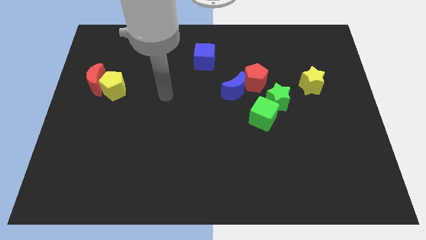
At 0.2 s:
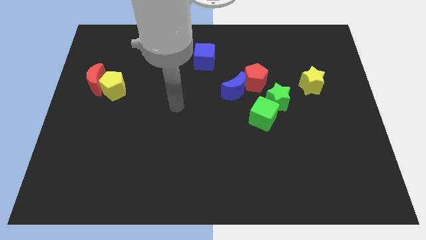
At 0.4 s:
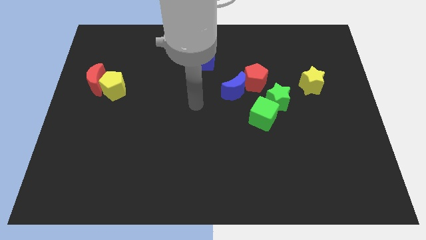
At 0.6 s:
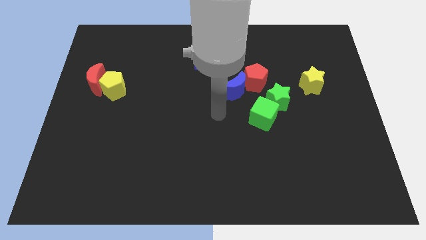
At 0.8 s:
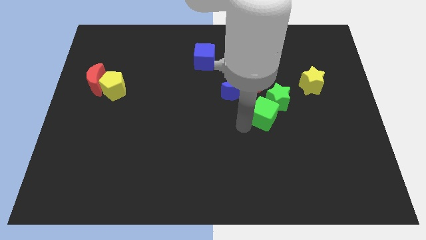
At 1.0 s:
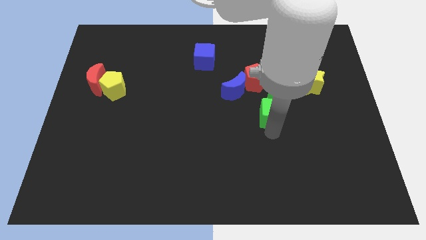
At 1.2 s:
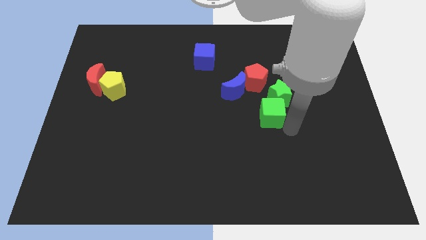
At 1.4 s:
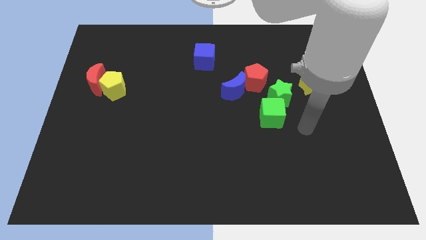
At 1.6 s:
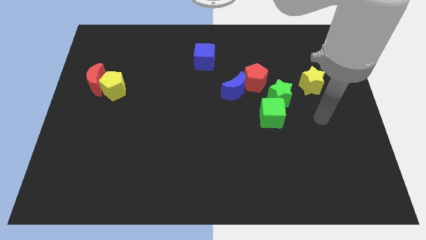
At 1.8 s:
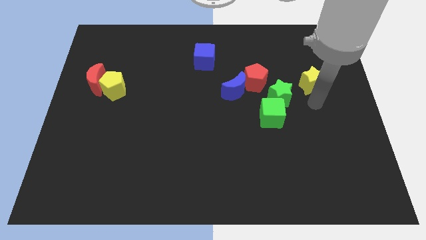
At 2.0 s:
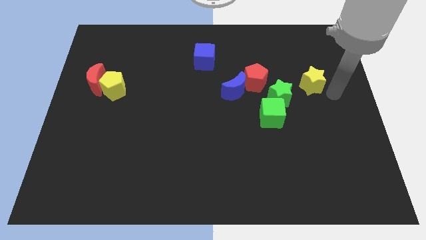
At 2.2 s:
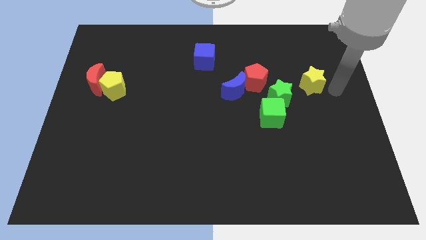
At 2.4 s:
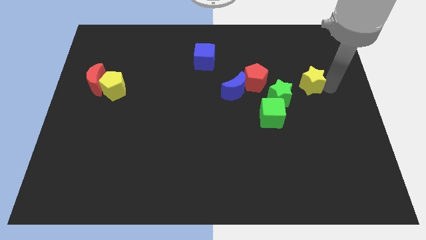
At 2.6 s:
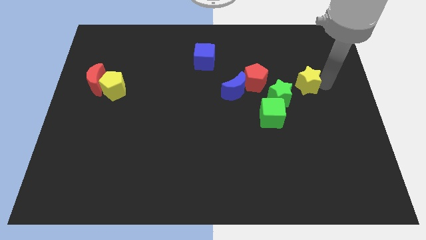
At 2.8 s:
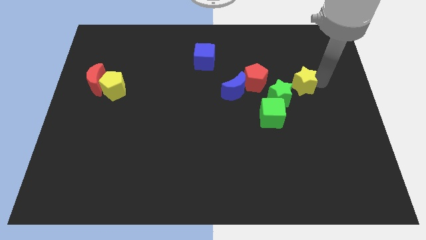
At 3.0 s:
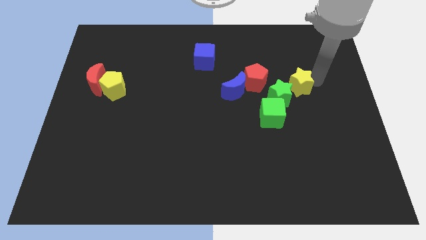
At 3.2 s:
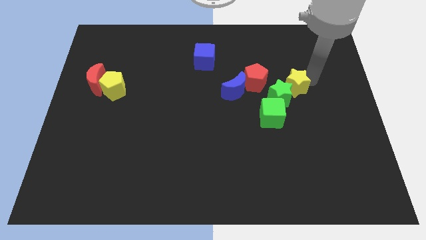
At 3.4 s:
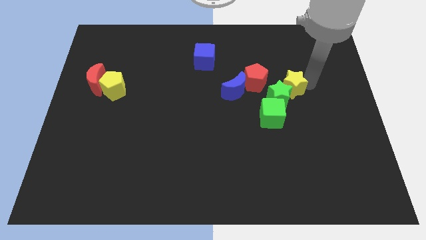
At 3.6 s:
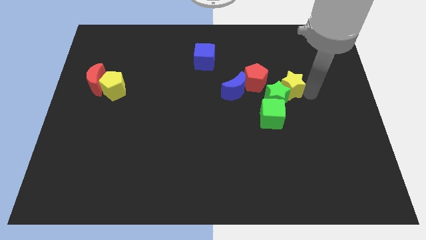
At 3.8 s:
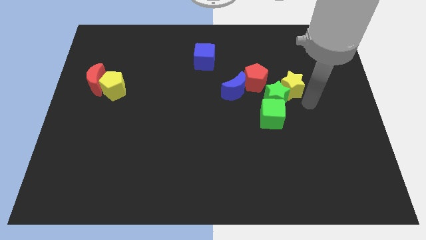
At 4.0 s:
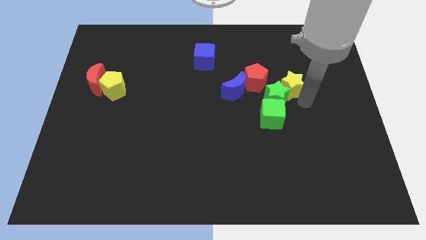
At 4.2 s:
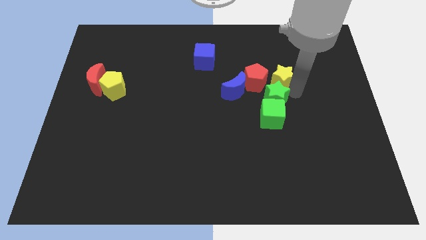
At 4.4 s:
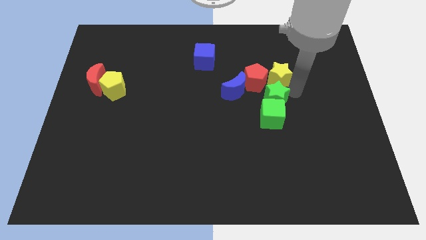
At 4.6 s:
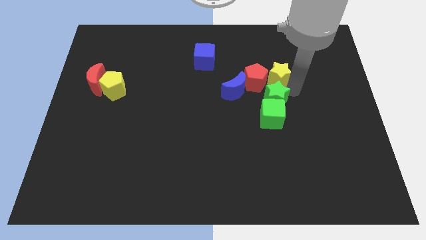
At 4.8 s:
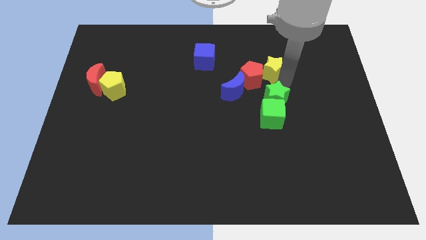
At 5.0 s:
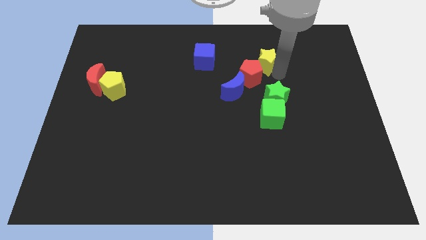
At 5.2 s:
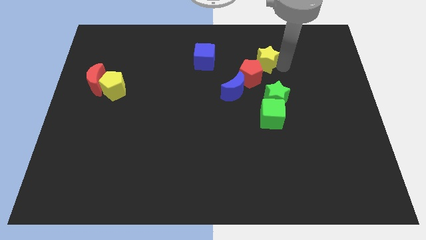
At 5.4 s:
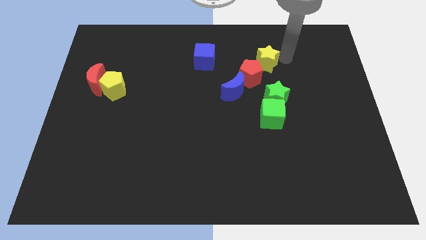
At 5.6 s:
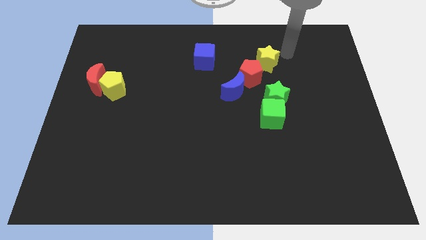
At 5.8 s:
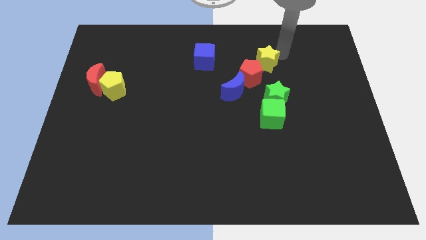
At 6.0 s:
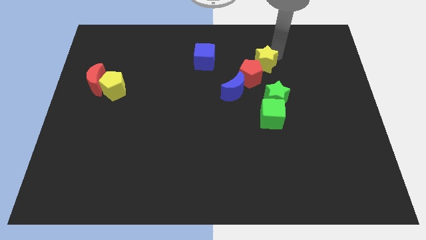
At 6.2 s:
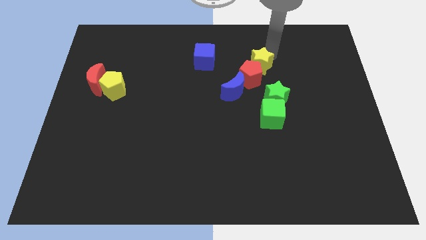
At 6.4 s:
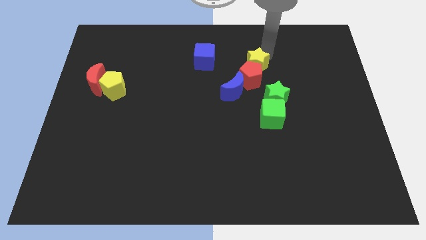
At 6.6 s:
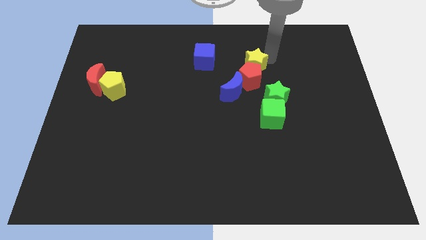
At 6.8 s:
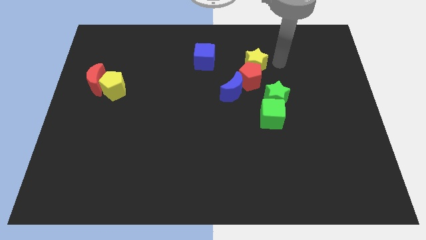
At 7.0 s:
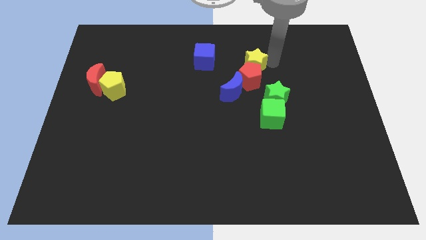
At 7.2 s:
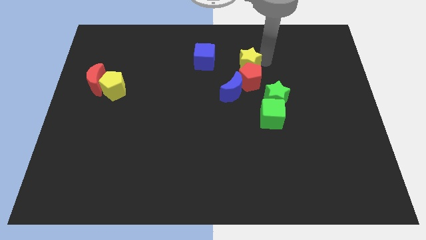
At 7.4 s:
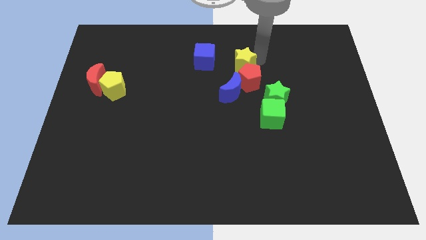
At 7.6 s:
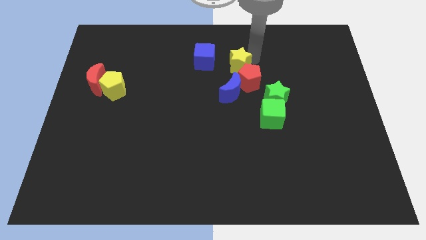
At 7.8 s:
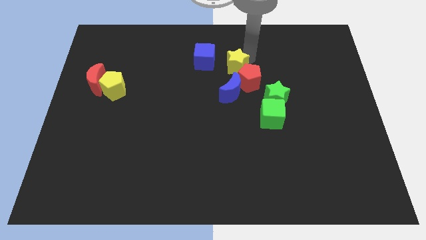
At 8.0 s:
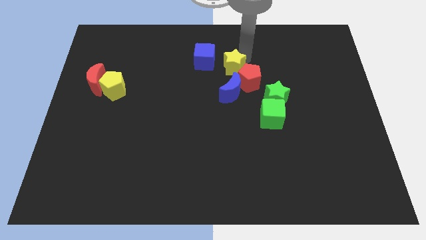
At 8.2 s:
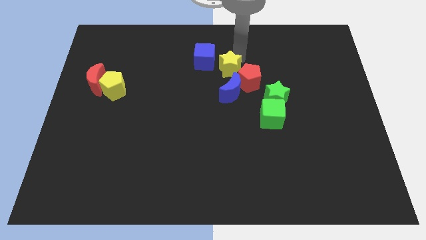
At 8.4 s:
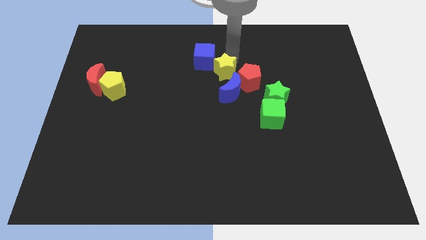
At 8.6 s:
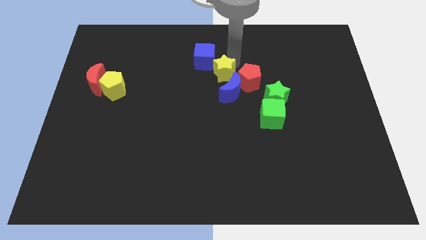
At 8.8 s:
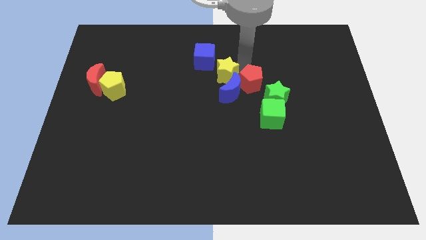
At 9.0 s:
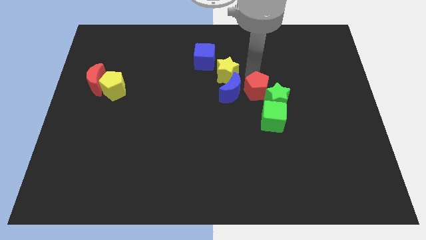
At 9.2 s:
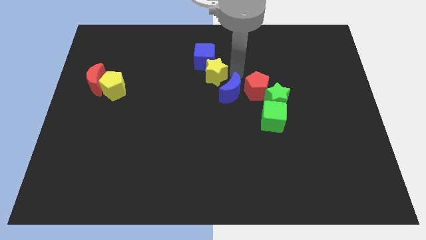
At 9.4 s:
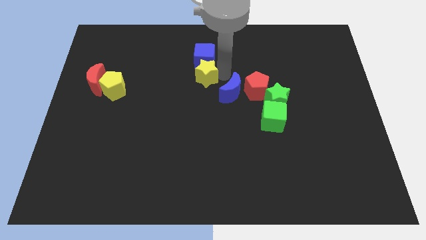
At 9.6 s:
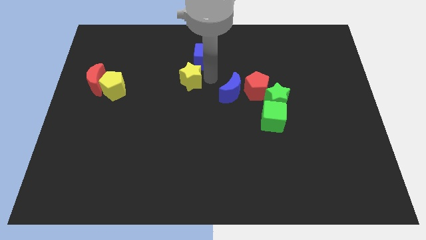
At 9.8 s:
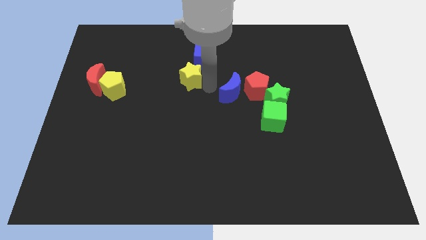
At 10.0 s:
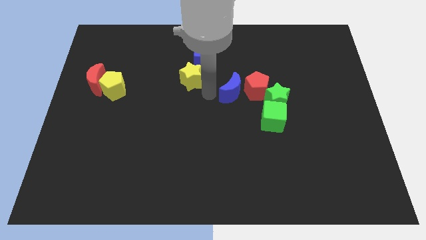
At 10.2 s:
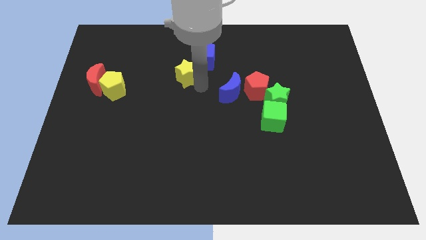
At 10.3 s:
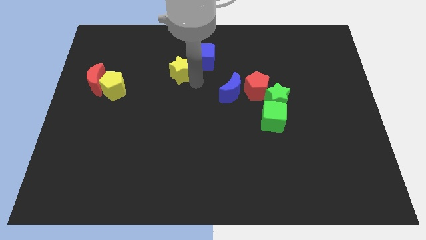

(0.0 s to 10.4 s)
put the yellow star to the left of the blue cube

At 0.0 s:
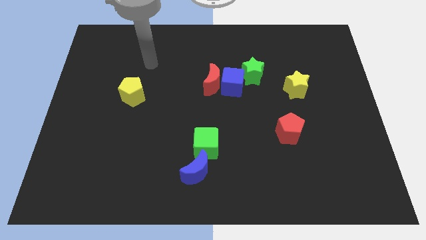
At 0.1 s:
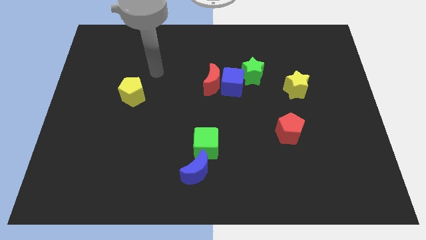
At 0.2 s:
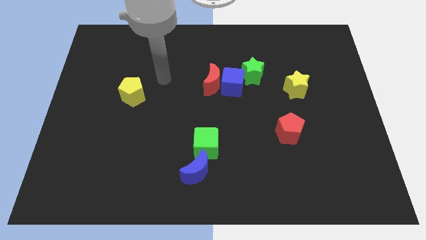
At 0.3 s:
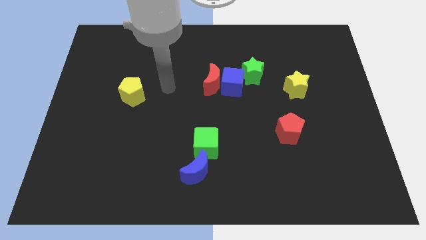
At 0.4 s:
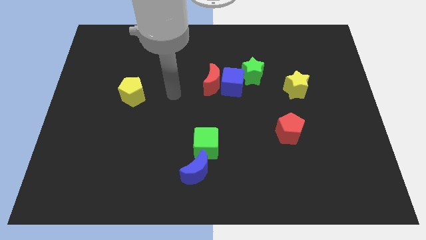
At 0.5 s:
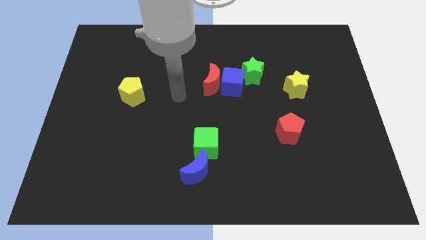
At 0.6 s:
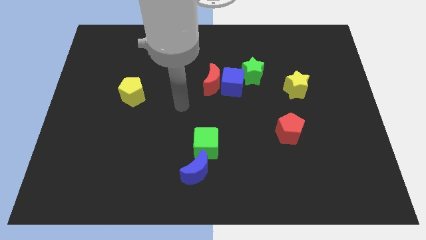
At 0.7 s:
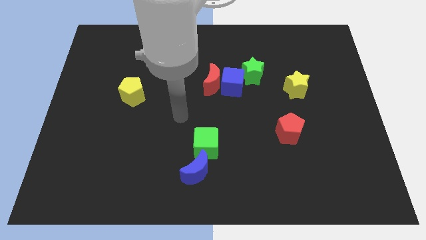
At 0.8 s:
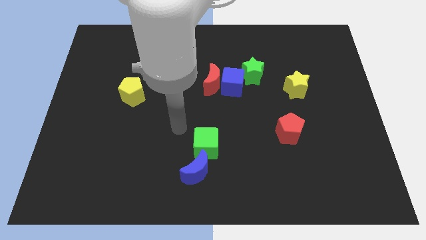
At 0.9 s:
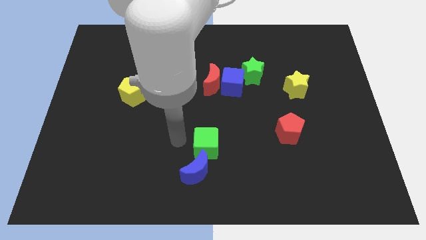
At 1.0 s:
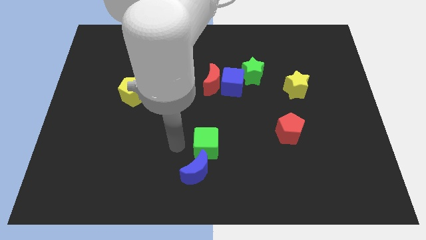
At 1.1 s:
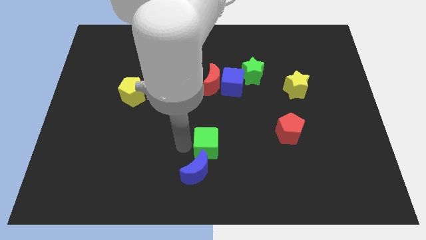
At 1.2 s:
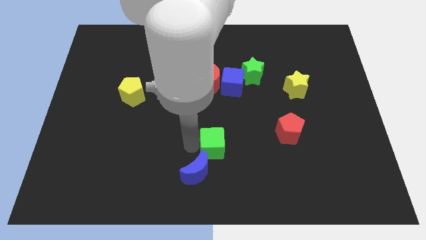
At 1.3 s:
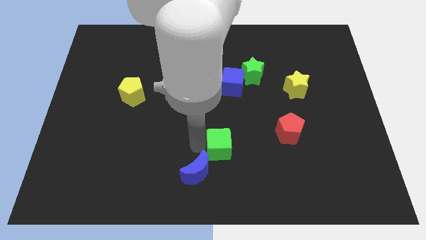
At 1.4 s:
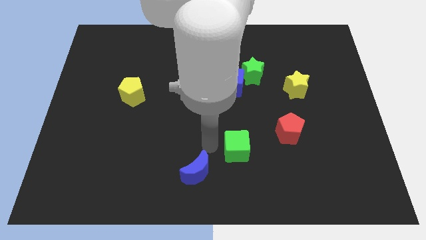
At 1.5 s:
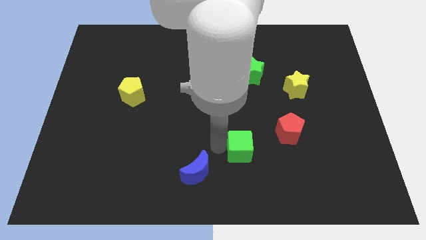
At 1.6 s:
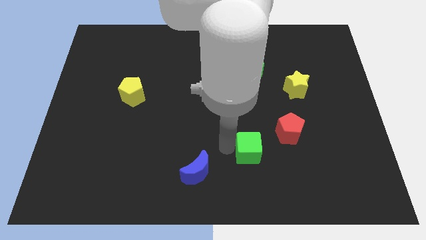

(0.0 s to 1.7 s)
put the green cube to the bottom left of the red pentagon

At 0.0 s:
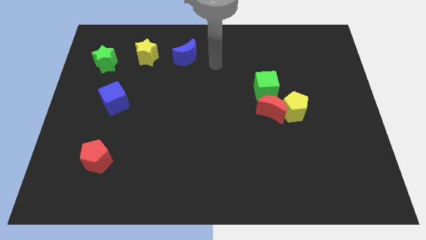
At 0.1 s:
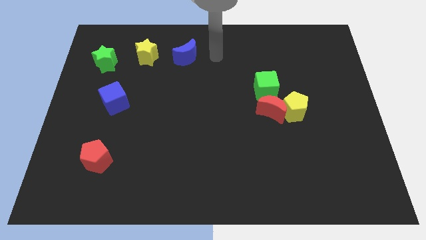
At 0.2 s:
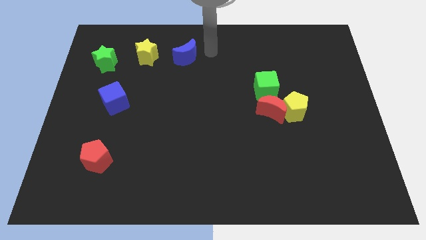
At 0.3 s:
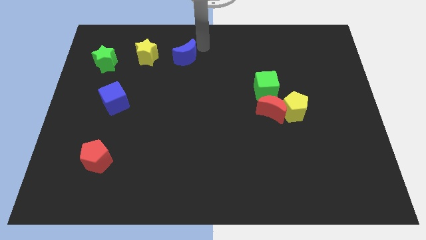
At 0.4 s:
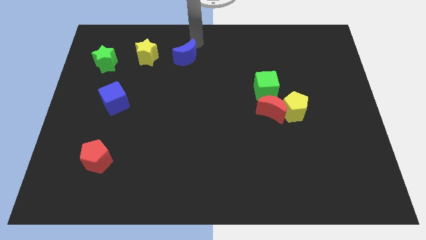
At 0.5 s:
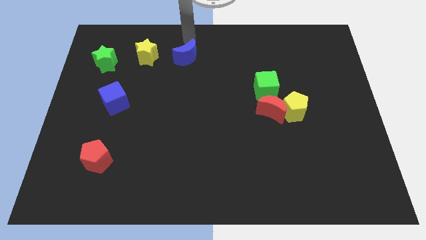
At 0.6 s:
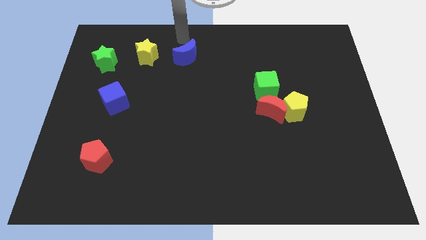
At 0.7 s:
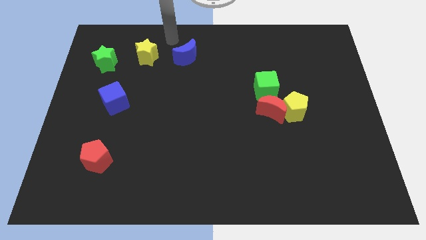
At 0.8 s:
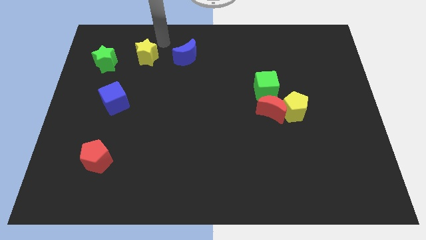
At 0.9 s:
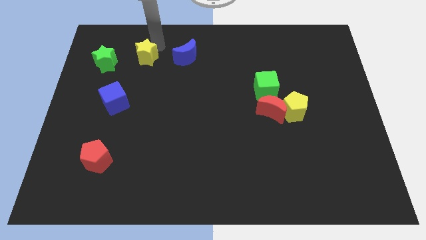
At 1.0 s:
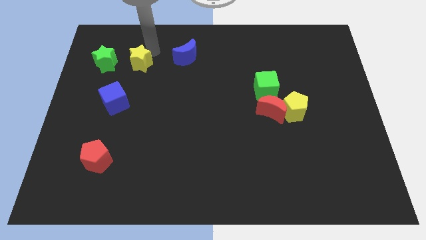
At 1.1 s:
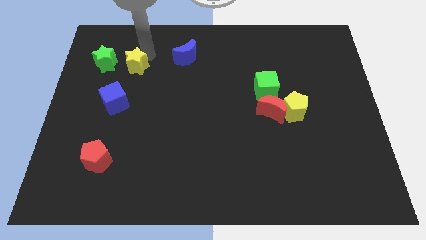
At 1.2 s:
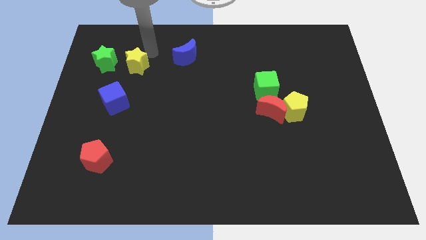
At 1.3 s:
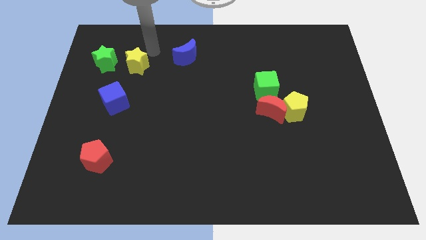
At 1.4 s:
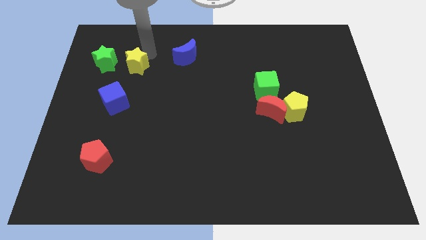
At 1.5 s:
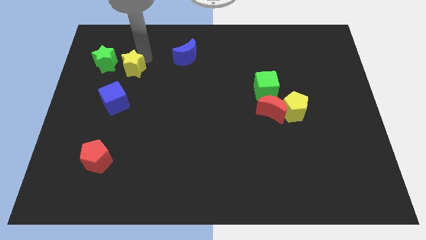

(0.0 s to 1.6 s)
push the yellow star to the bottom right of the green star
